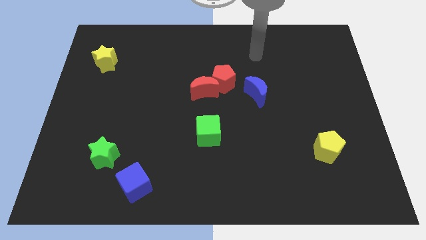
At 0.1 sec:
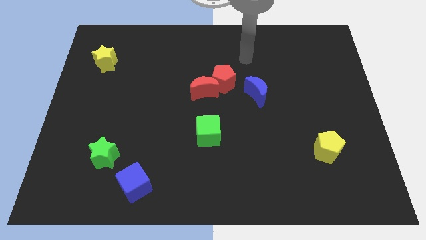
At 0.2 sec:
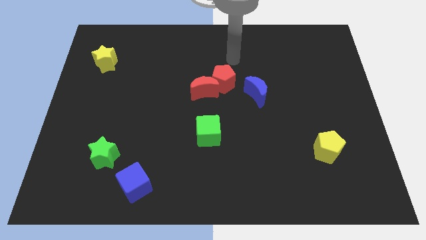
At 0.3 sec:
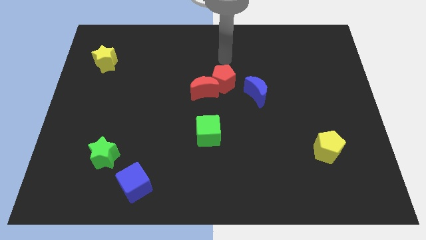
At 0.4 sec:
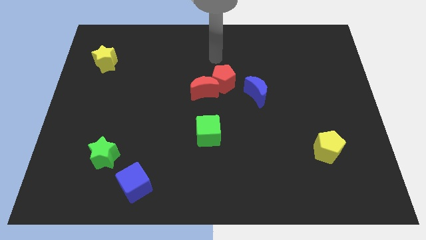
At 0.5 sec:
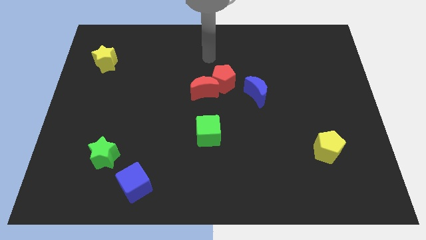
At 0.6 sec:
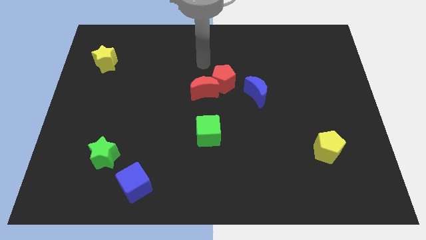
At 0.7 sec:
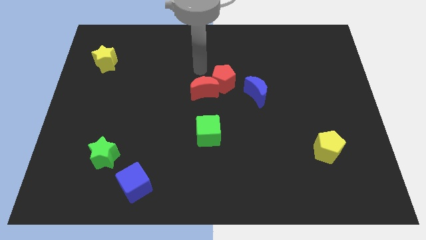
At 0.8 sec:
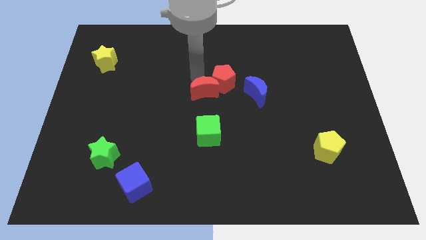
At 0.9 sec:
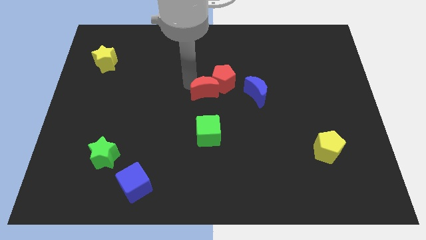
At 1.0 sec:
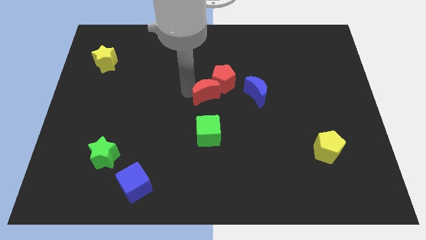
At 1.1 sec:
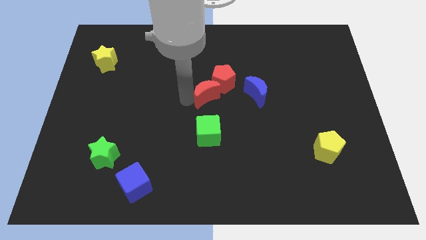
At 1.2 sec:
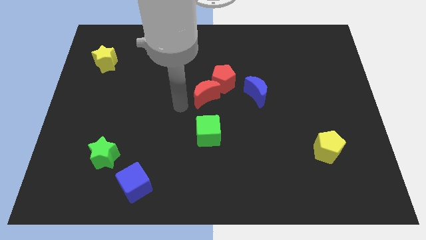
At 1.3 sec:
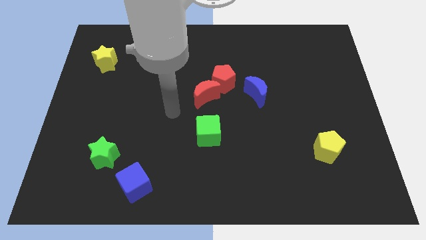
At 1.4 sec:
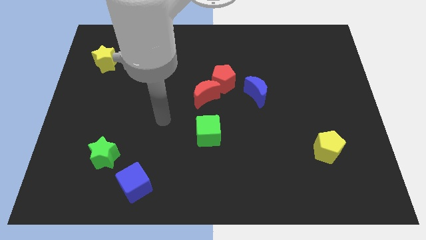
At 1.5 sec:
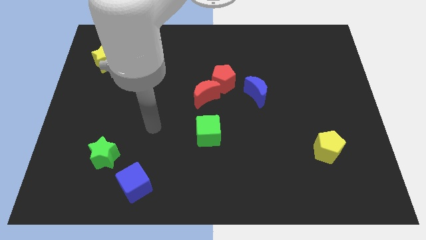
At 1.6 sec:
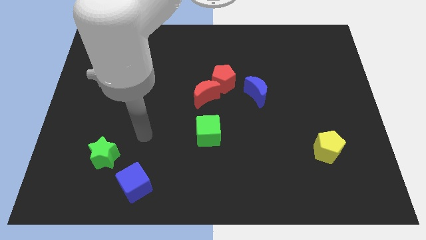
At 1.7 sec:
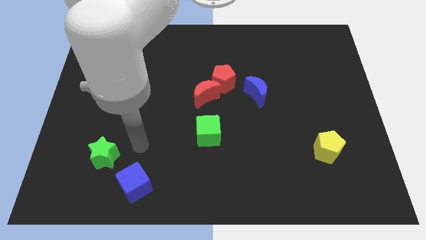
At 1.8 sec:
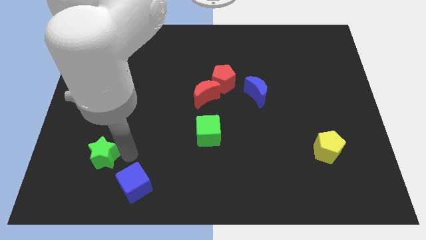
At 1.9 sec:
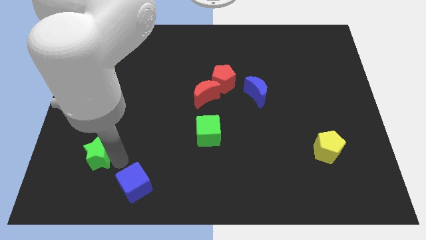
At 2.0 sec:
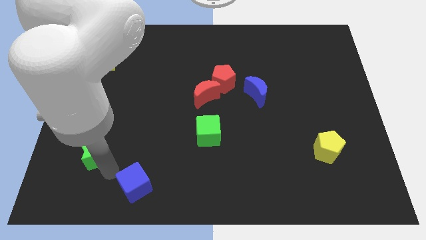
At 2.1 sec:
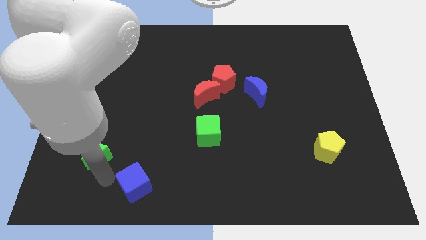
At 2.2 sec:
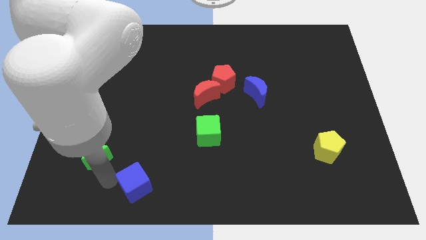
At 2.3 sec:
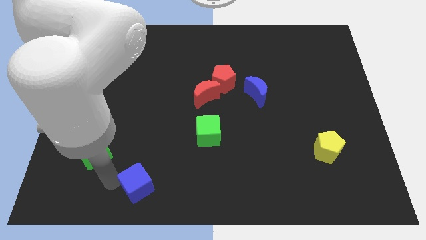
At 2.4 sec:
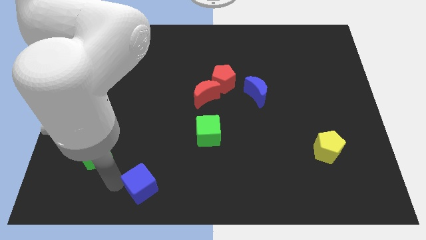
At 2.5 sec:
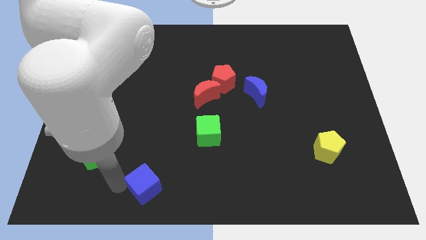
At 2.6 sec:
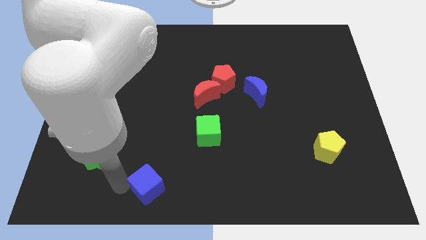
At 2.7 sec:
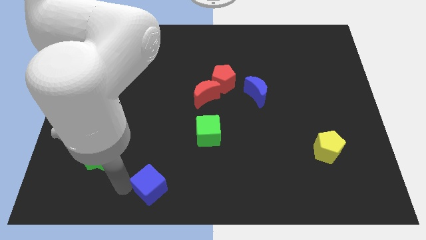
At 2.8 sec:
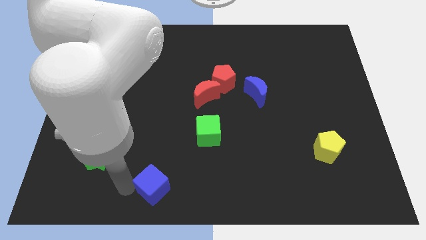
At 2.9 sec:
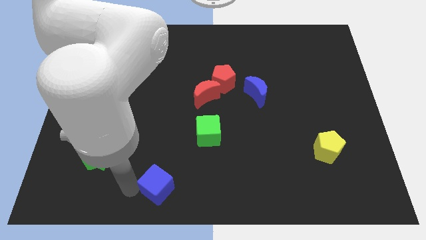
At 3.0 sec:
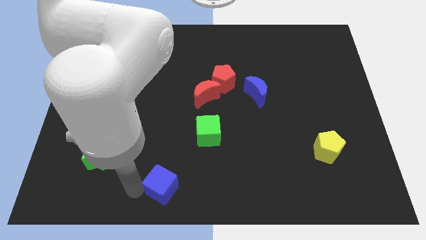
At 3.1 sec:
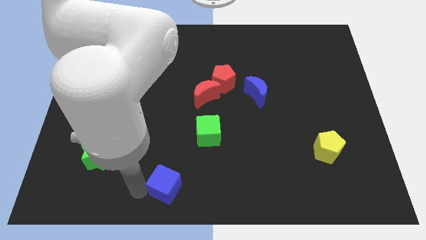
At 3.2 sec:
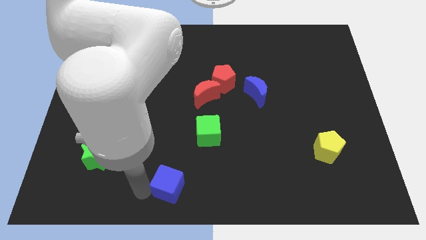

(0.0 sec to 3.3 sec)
slide the blue cube right a little

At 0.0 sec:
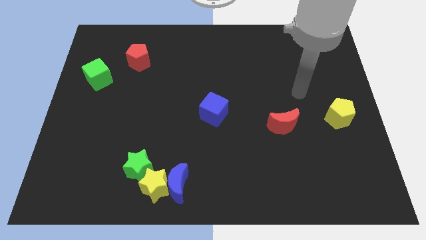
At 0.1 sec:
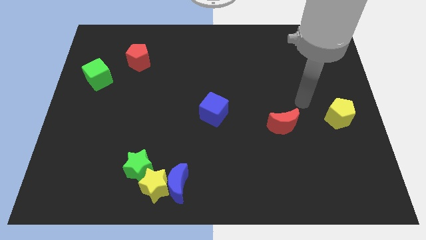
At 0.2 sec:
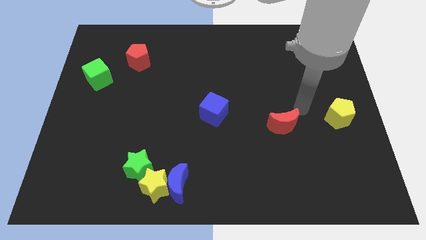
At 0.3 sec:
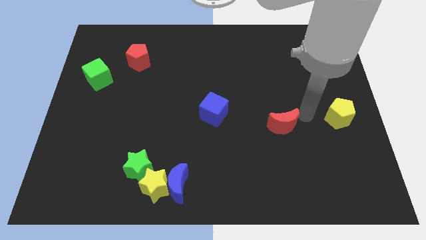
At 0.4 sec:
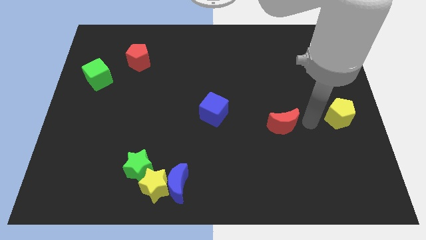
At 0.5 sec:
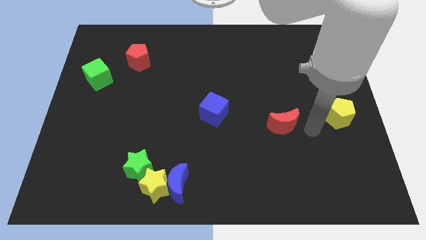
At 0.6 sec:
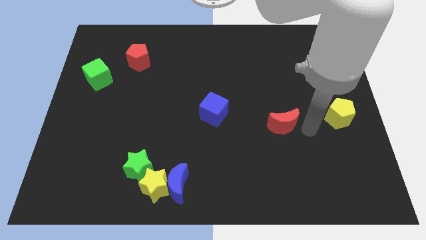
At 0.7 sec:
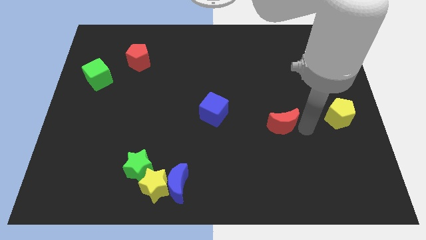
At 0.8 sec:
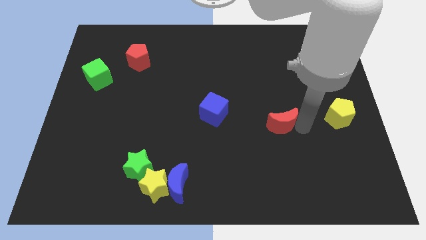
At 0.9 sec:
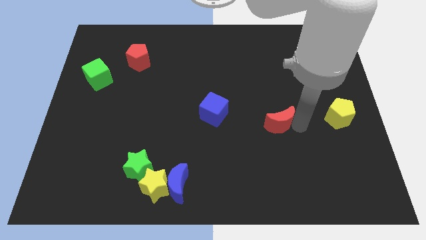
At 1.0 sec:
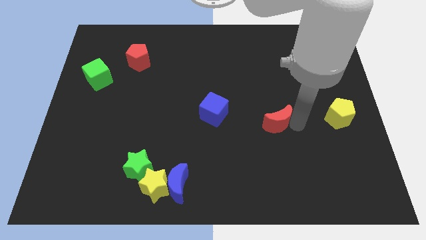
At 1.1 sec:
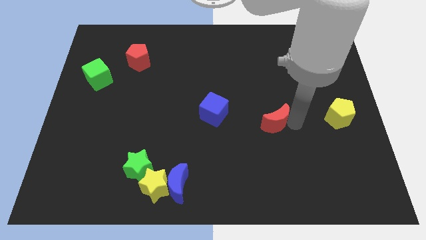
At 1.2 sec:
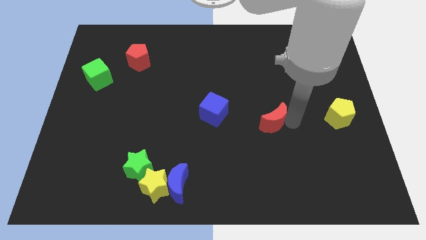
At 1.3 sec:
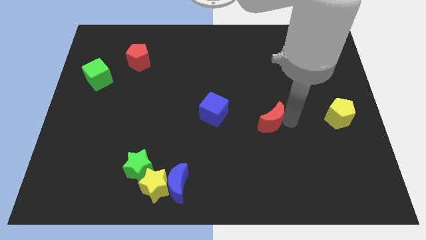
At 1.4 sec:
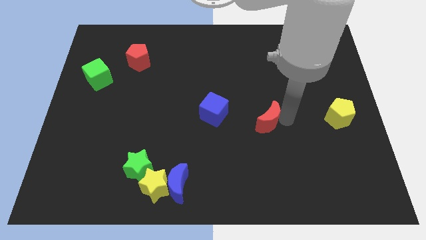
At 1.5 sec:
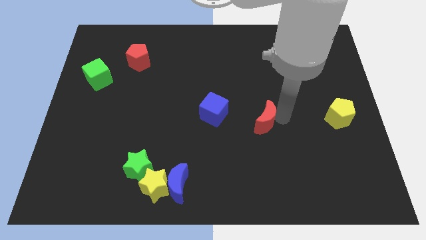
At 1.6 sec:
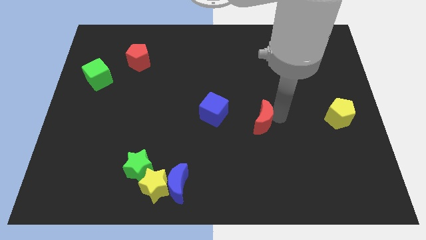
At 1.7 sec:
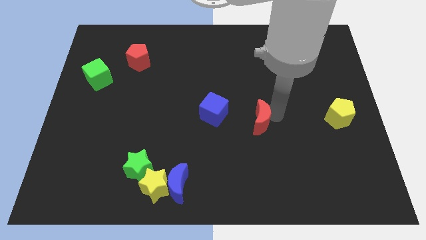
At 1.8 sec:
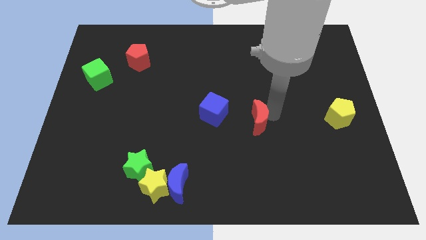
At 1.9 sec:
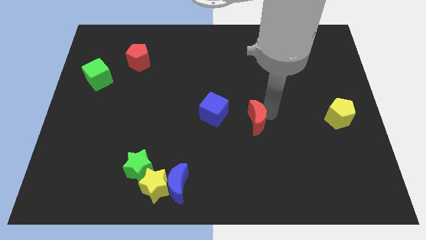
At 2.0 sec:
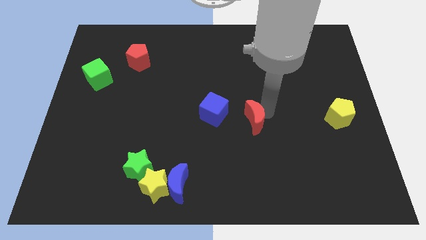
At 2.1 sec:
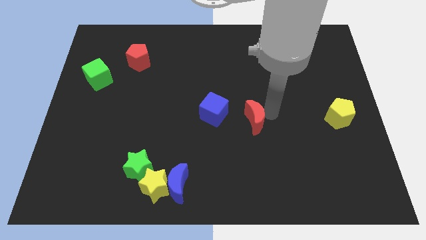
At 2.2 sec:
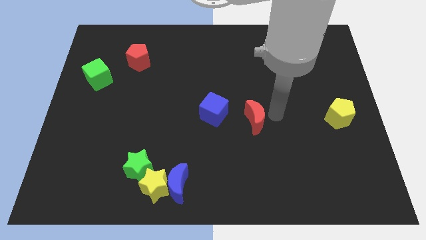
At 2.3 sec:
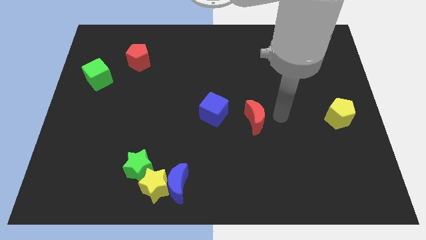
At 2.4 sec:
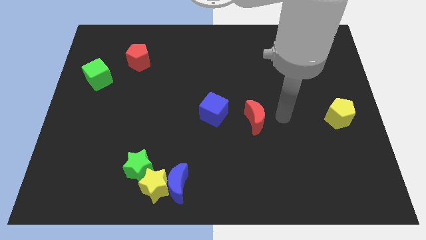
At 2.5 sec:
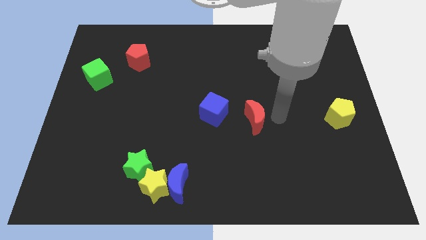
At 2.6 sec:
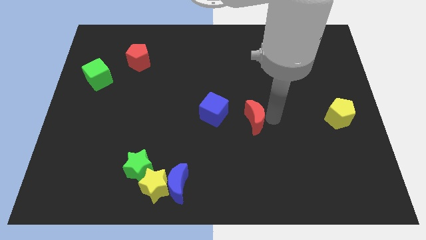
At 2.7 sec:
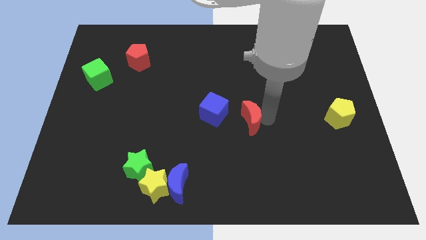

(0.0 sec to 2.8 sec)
slide the red moon left a little

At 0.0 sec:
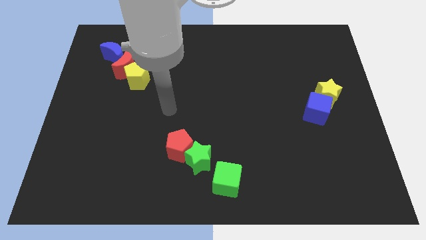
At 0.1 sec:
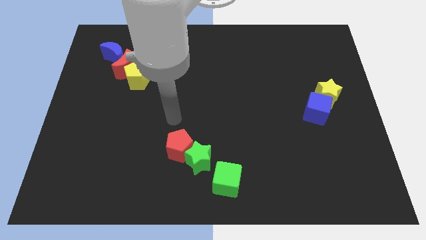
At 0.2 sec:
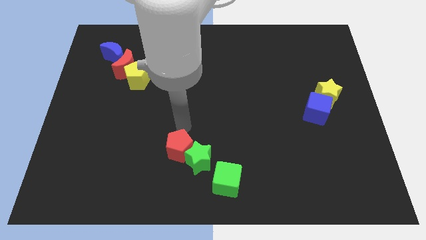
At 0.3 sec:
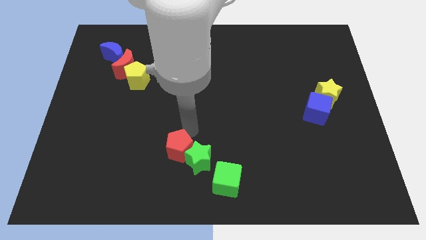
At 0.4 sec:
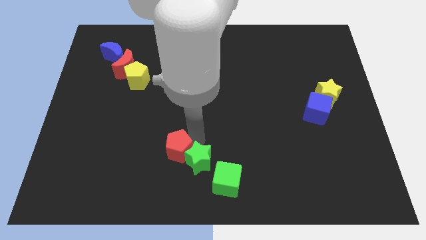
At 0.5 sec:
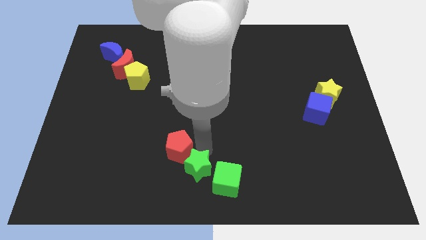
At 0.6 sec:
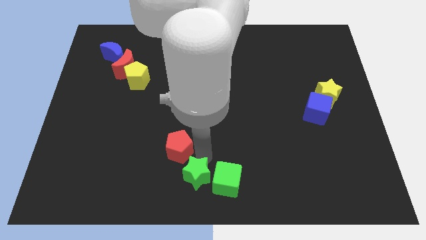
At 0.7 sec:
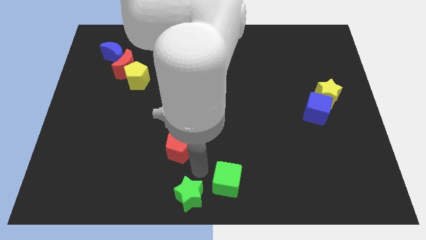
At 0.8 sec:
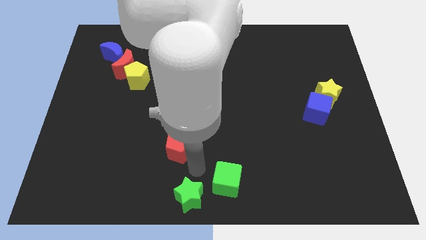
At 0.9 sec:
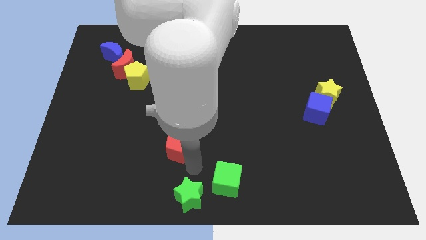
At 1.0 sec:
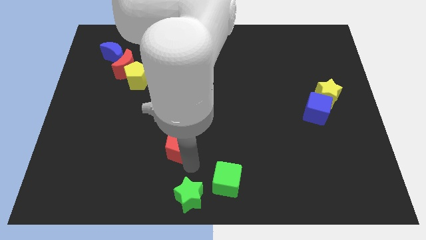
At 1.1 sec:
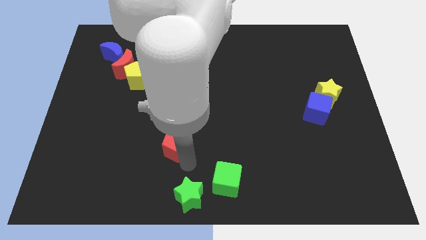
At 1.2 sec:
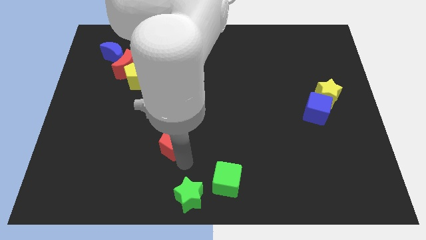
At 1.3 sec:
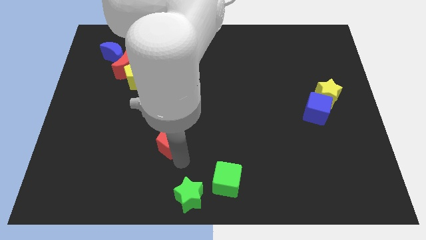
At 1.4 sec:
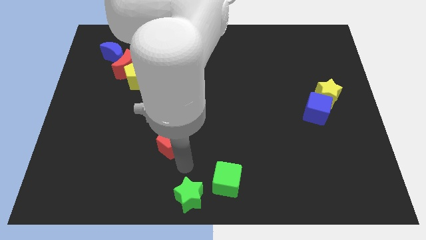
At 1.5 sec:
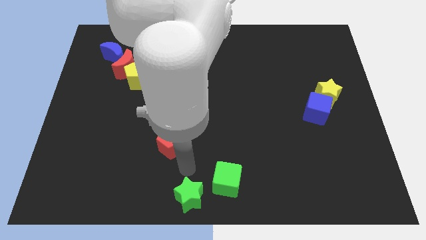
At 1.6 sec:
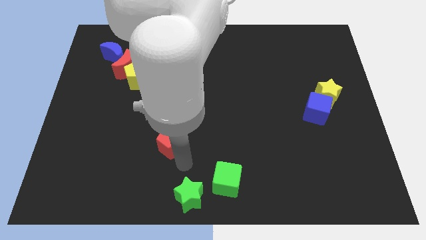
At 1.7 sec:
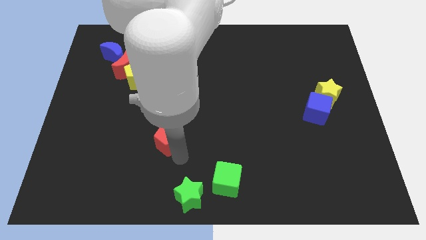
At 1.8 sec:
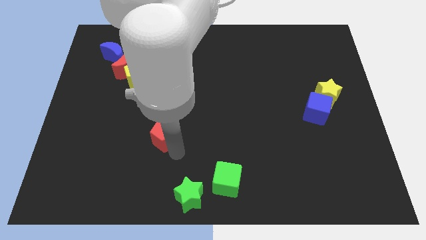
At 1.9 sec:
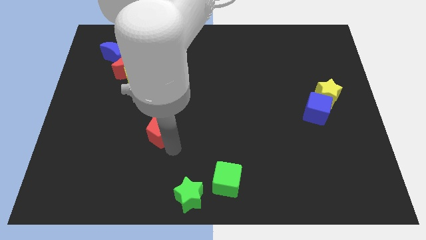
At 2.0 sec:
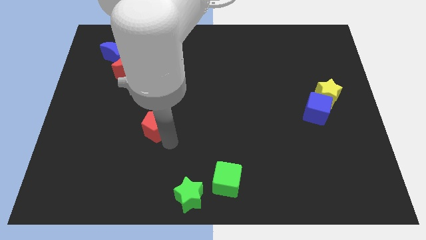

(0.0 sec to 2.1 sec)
push the red pentagon upwards and left slightly
